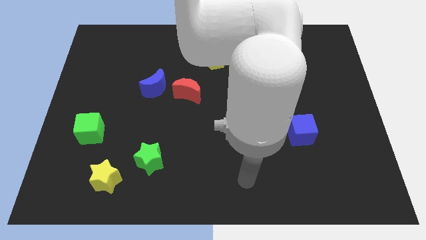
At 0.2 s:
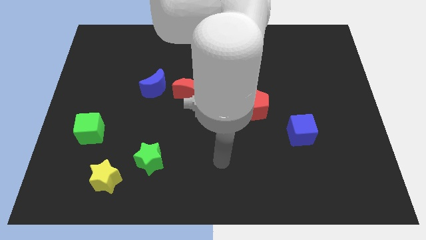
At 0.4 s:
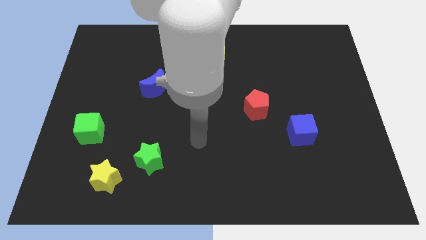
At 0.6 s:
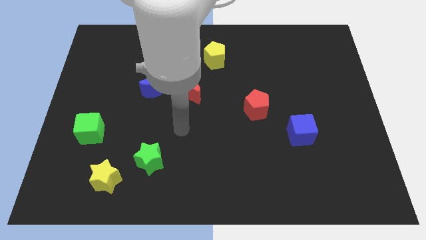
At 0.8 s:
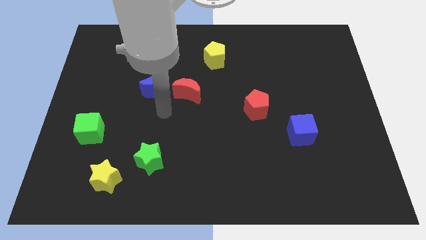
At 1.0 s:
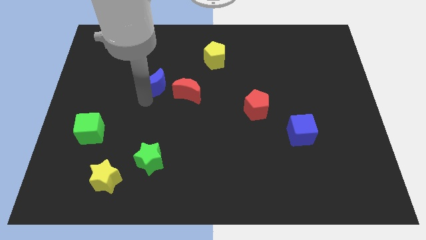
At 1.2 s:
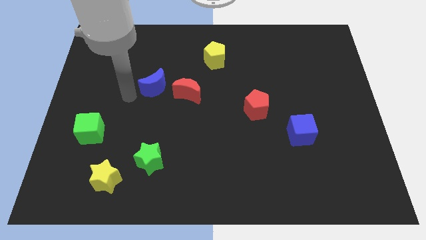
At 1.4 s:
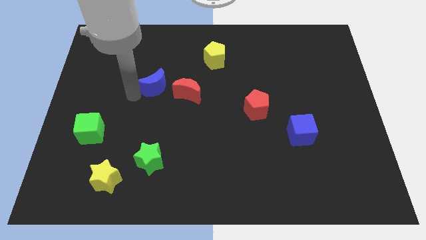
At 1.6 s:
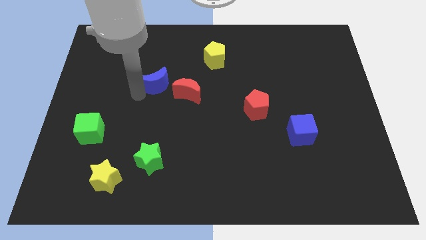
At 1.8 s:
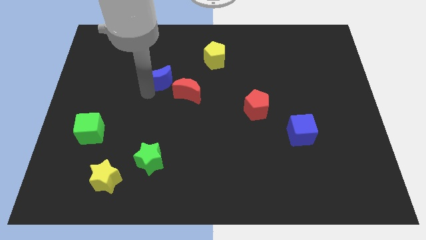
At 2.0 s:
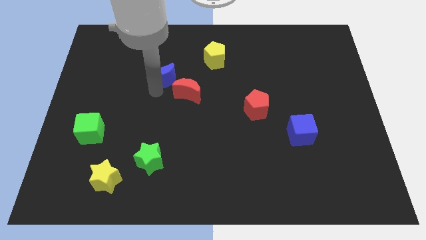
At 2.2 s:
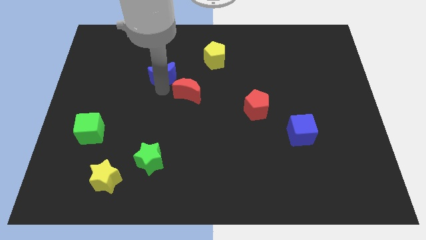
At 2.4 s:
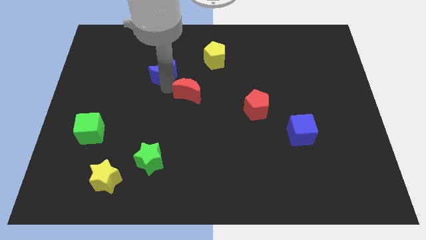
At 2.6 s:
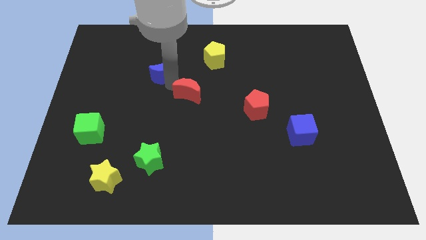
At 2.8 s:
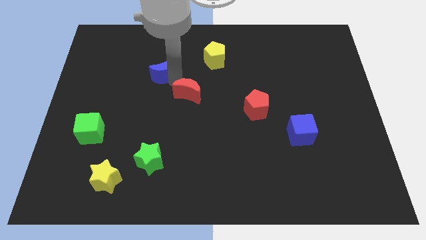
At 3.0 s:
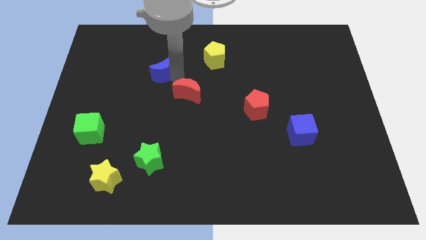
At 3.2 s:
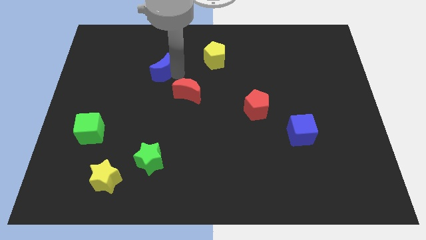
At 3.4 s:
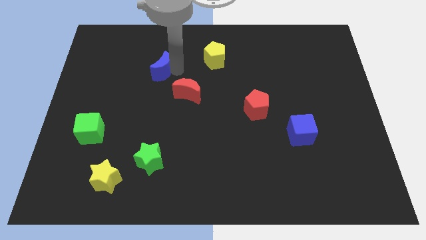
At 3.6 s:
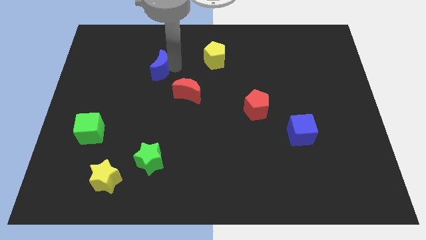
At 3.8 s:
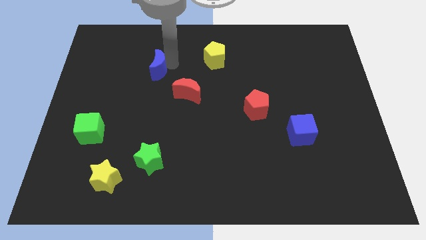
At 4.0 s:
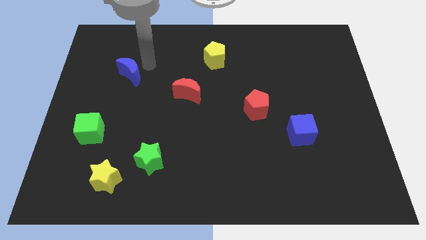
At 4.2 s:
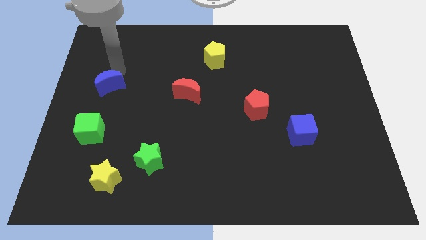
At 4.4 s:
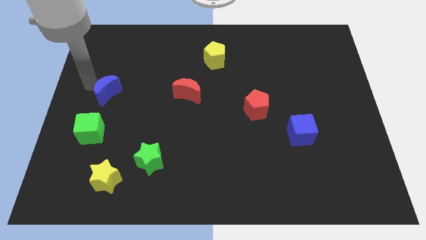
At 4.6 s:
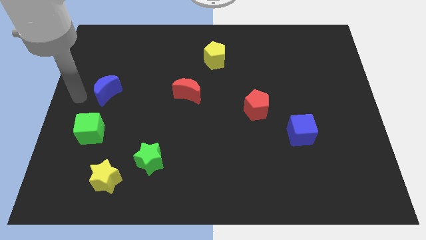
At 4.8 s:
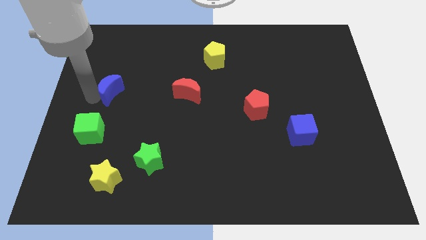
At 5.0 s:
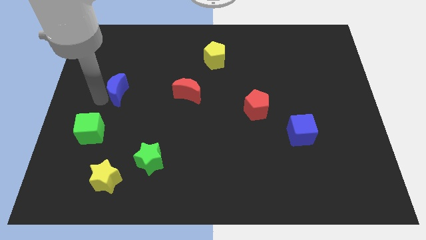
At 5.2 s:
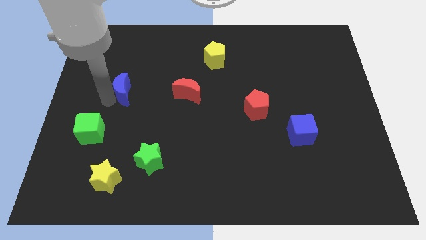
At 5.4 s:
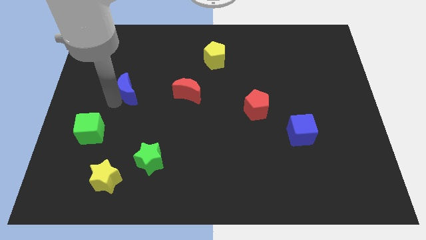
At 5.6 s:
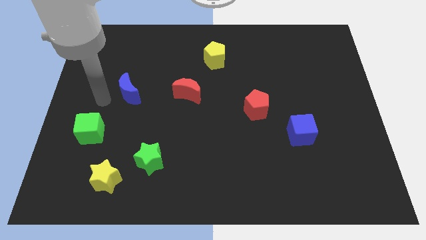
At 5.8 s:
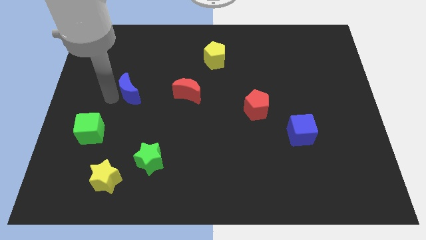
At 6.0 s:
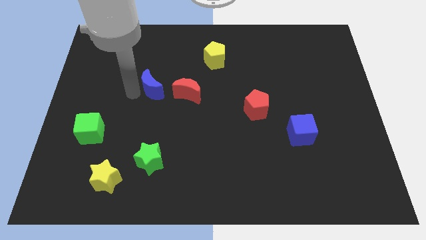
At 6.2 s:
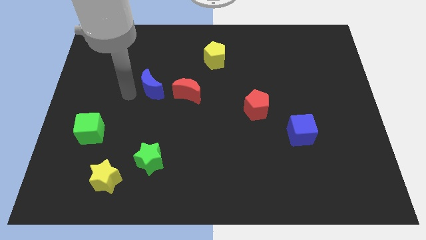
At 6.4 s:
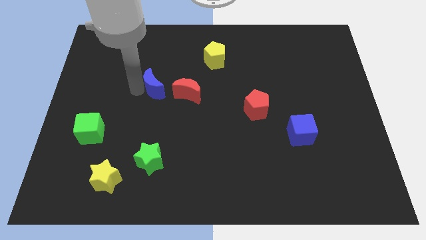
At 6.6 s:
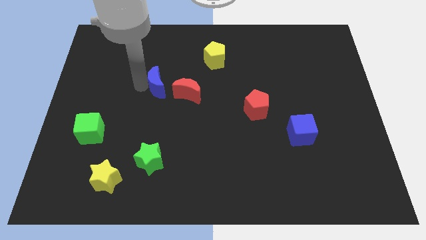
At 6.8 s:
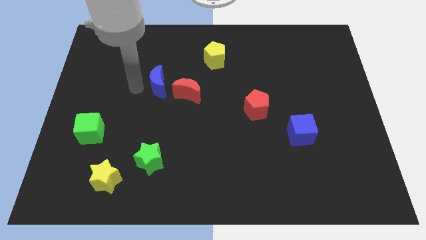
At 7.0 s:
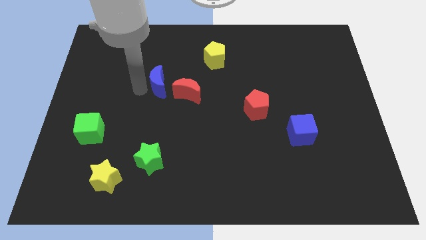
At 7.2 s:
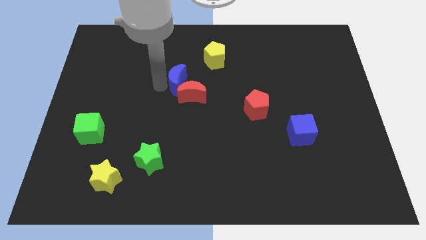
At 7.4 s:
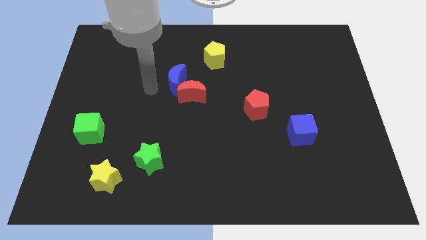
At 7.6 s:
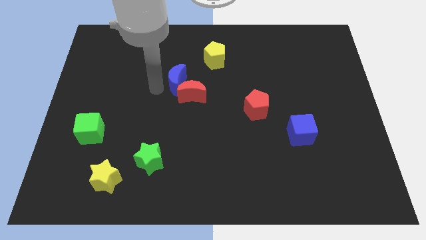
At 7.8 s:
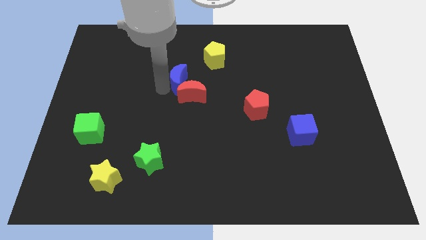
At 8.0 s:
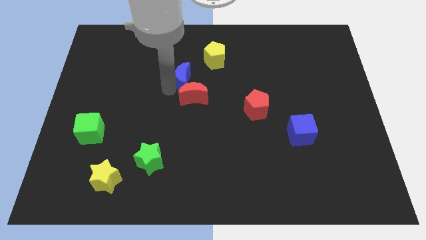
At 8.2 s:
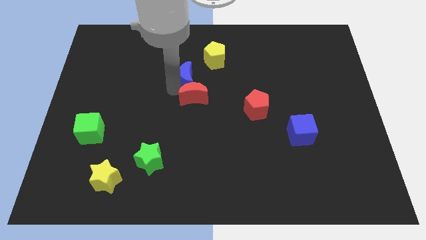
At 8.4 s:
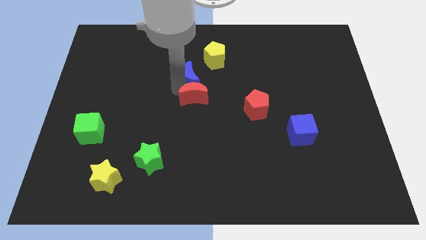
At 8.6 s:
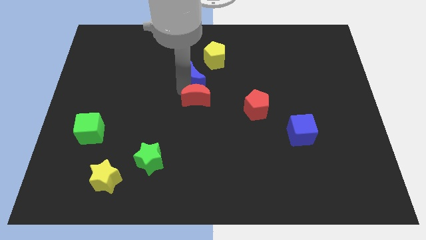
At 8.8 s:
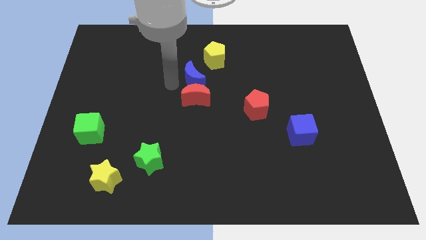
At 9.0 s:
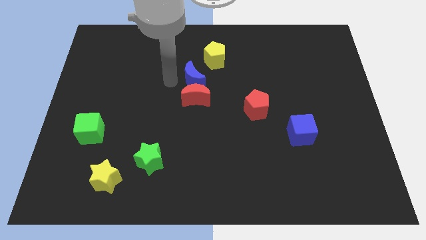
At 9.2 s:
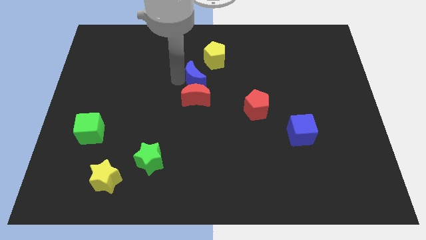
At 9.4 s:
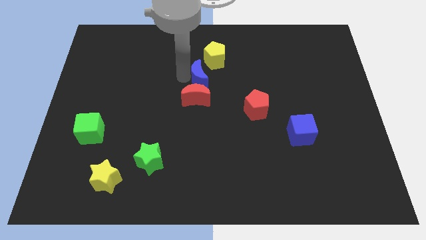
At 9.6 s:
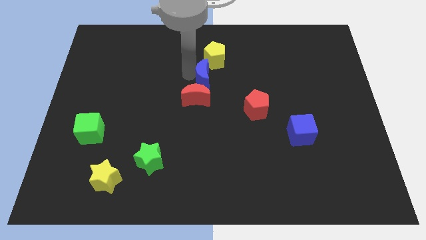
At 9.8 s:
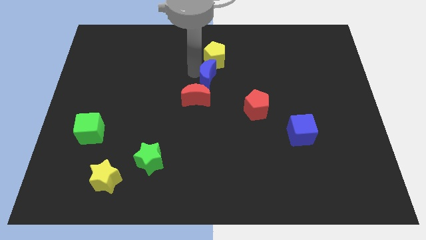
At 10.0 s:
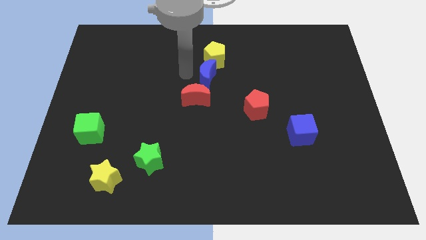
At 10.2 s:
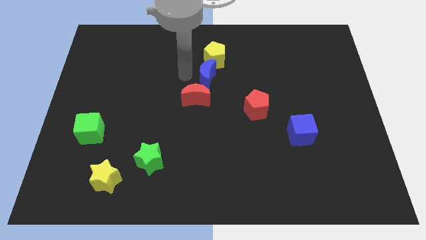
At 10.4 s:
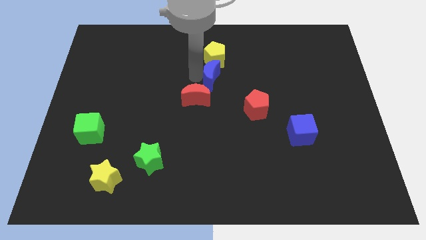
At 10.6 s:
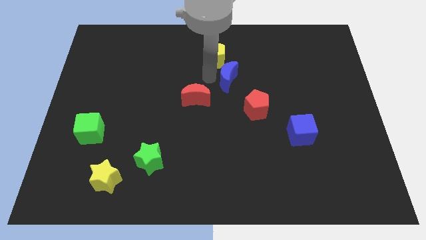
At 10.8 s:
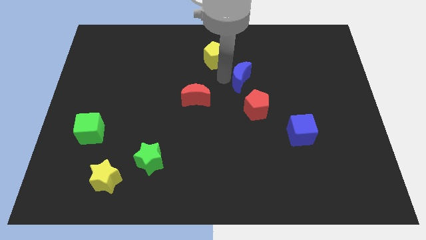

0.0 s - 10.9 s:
move the blue moon to the right

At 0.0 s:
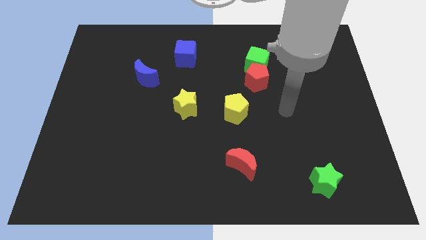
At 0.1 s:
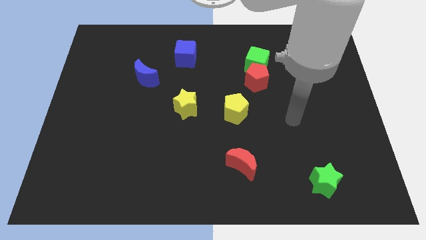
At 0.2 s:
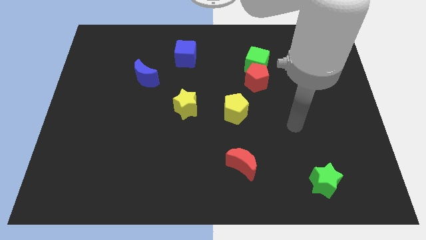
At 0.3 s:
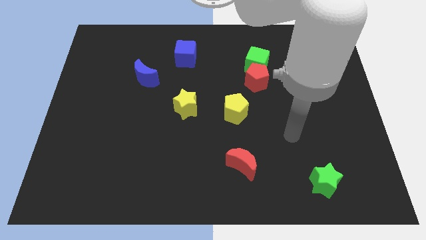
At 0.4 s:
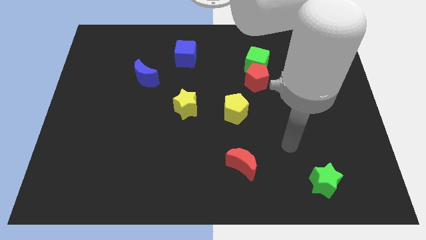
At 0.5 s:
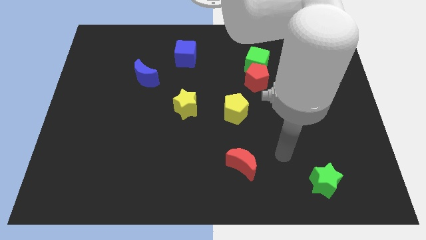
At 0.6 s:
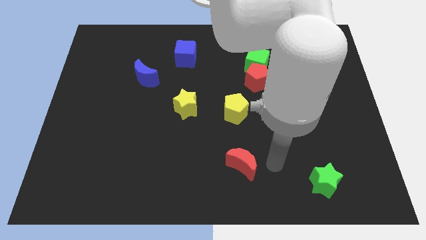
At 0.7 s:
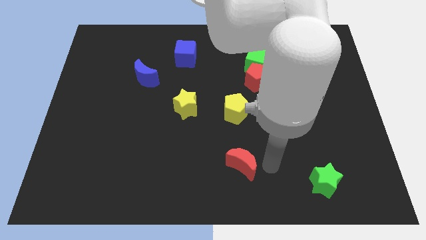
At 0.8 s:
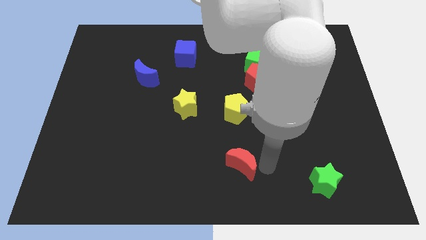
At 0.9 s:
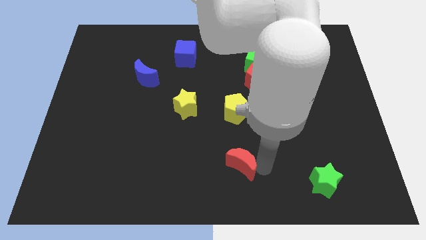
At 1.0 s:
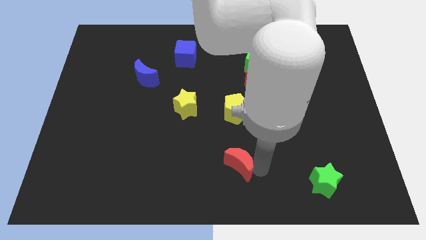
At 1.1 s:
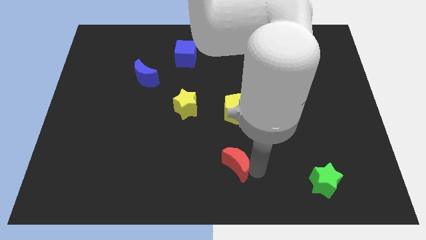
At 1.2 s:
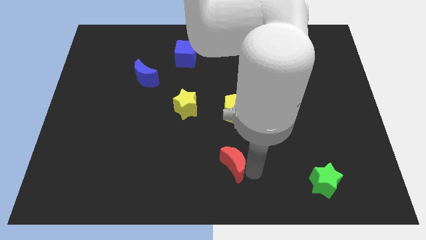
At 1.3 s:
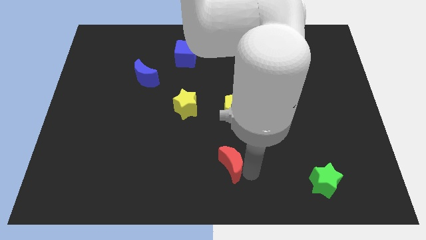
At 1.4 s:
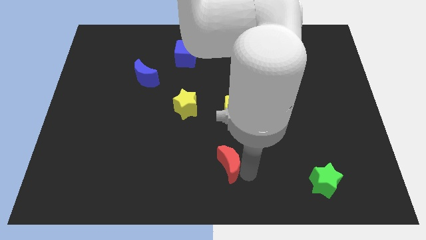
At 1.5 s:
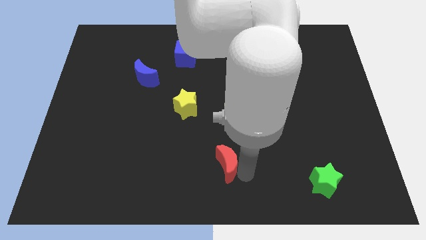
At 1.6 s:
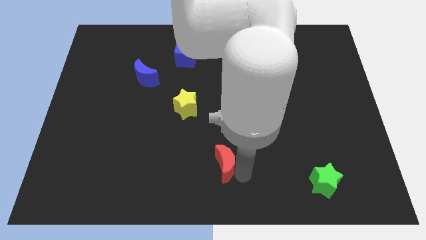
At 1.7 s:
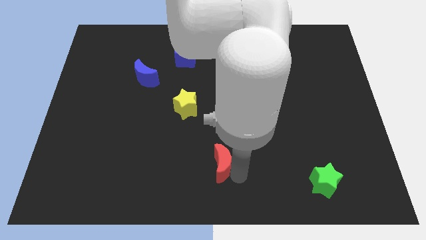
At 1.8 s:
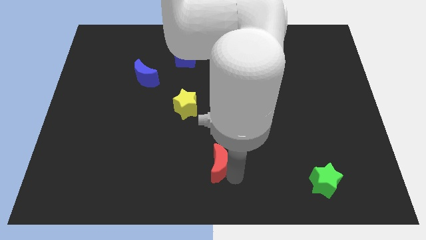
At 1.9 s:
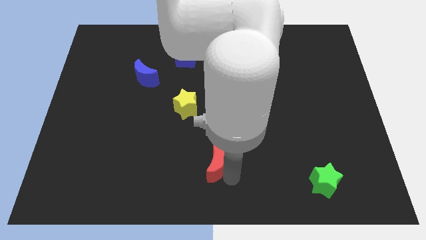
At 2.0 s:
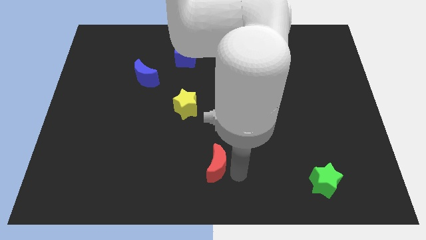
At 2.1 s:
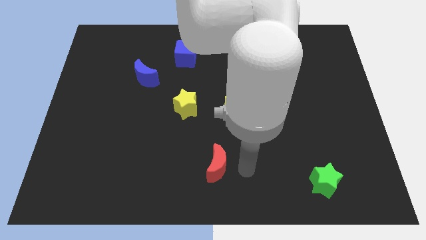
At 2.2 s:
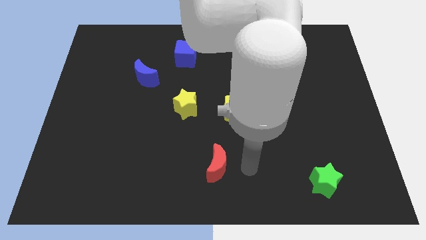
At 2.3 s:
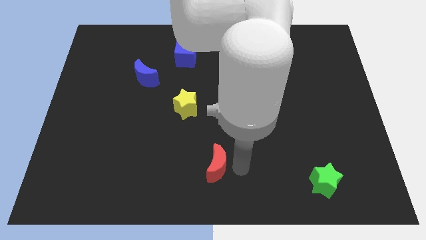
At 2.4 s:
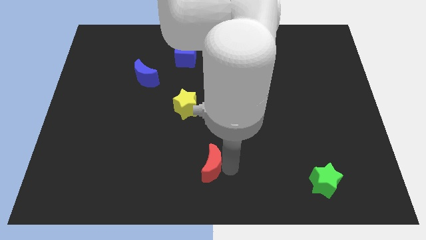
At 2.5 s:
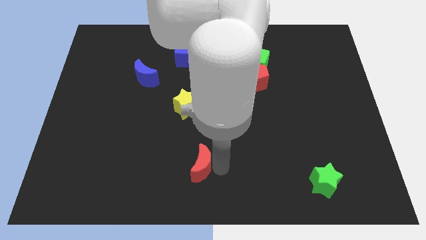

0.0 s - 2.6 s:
push the red moon to the left a little bit
